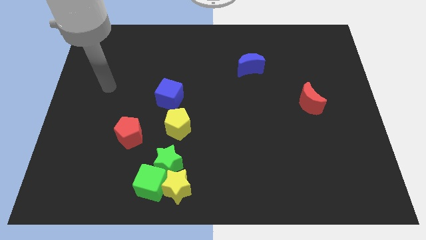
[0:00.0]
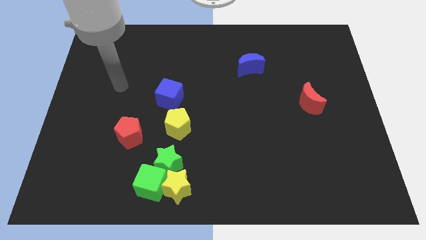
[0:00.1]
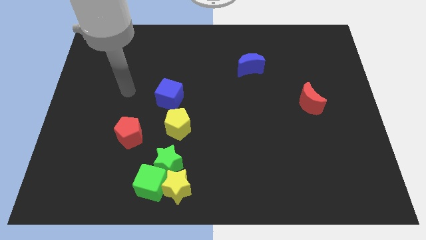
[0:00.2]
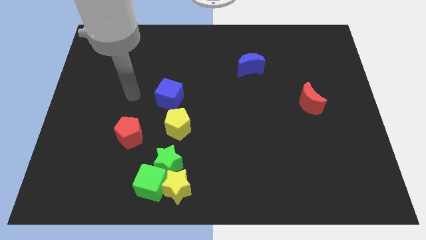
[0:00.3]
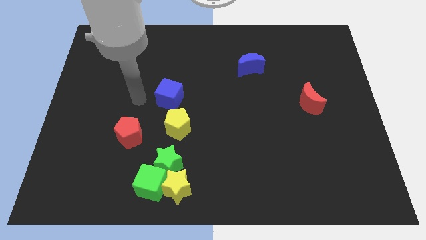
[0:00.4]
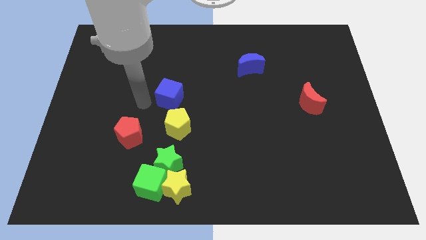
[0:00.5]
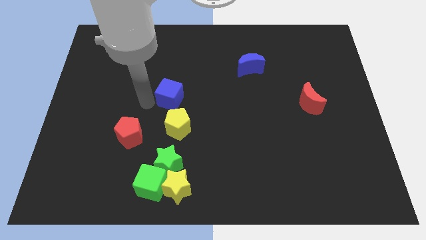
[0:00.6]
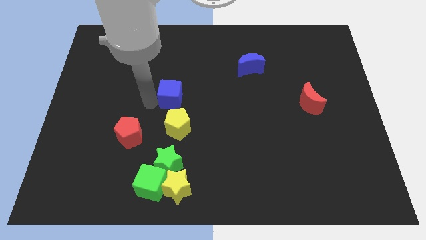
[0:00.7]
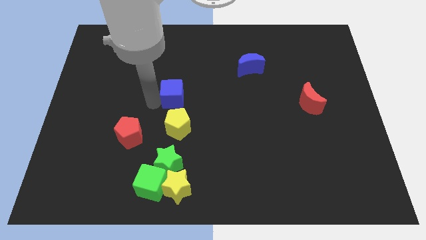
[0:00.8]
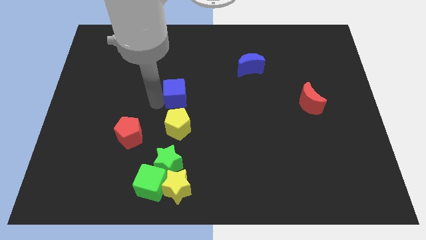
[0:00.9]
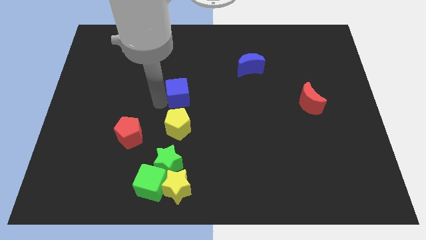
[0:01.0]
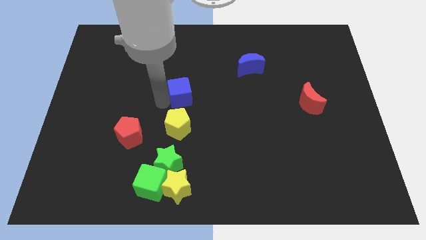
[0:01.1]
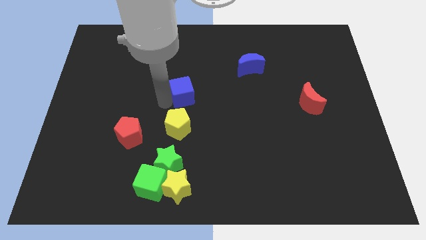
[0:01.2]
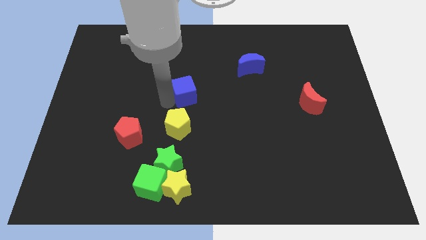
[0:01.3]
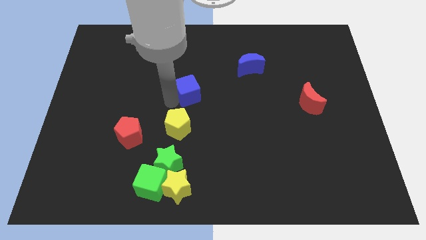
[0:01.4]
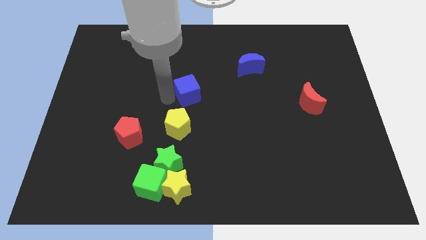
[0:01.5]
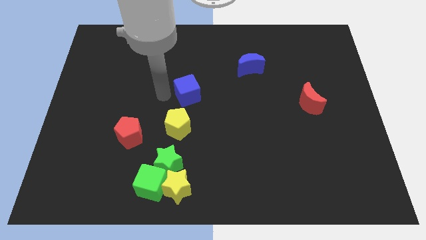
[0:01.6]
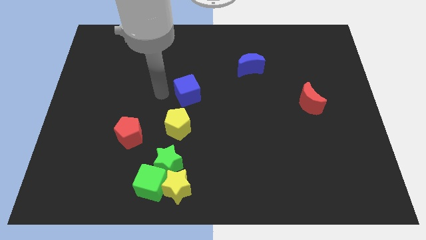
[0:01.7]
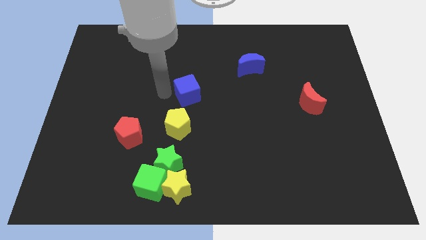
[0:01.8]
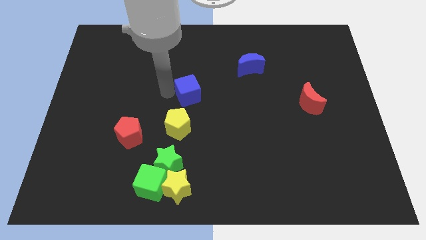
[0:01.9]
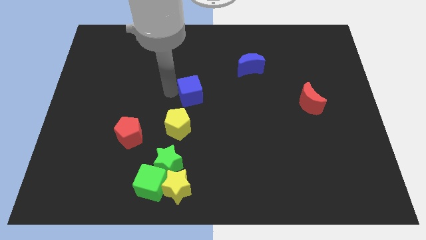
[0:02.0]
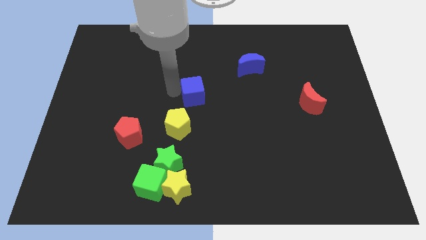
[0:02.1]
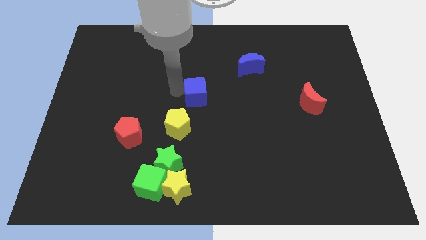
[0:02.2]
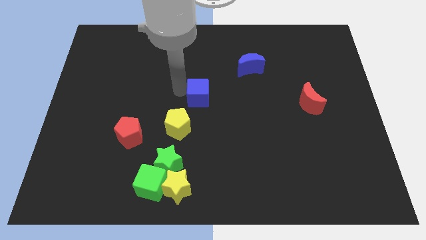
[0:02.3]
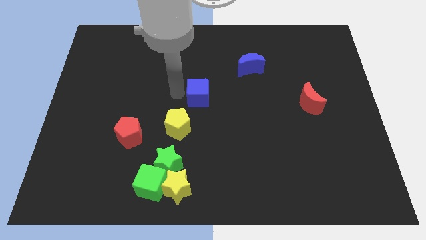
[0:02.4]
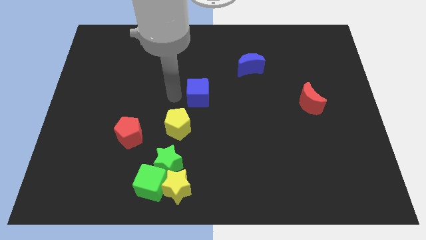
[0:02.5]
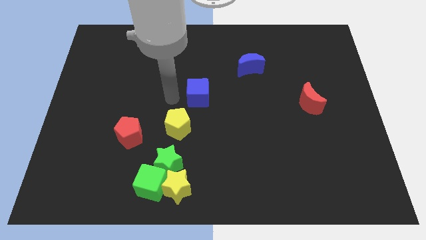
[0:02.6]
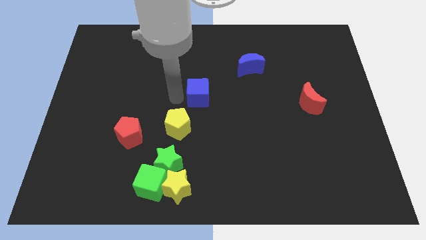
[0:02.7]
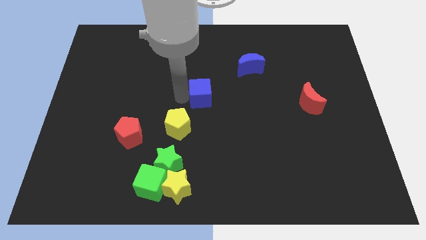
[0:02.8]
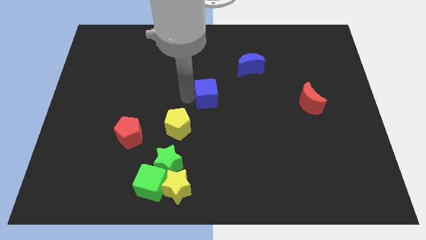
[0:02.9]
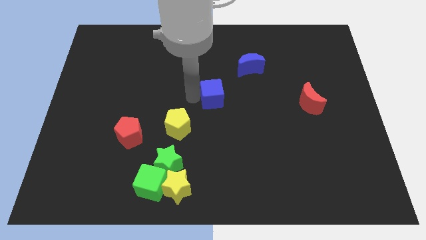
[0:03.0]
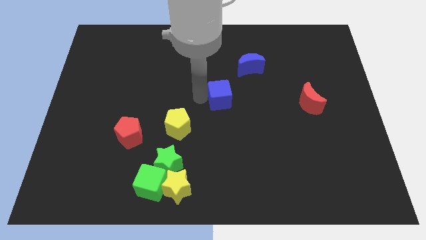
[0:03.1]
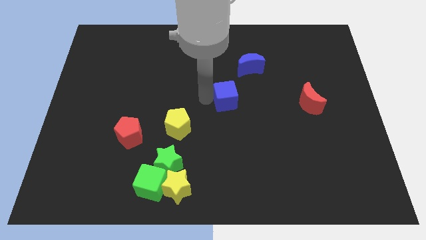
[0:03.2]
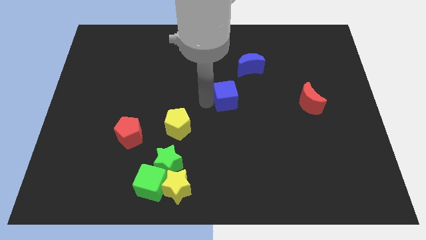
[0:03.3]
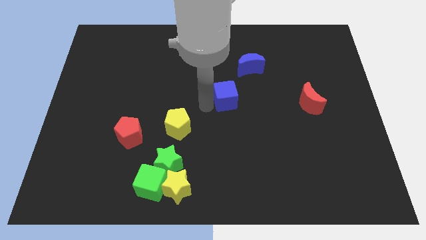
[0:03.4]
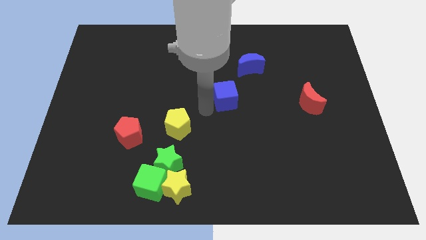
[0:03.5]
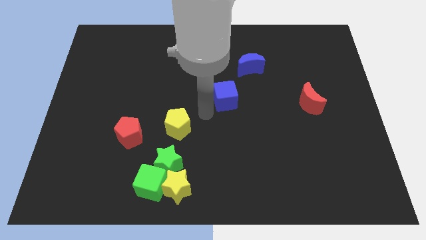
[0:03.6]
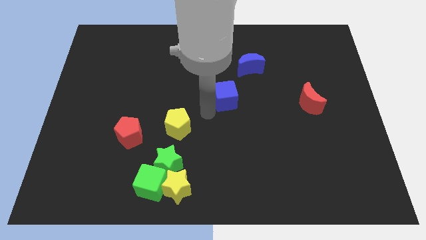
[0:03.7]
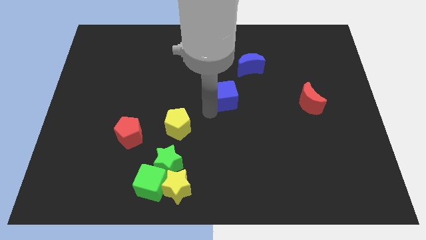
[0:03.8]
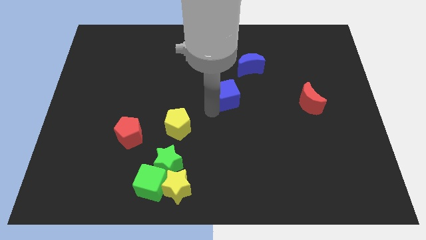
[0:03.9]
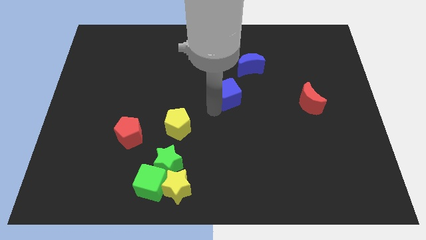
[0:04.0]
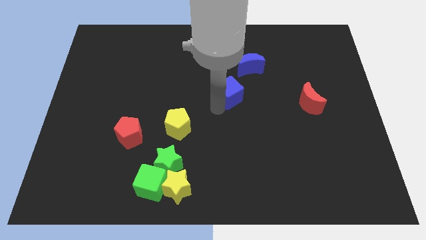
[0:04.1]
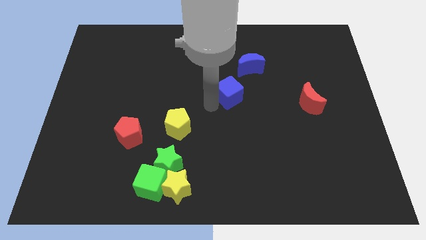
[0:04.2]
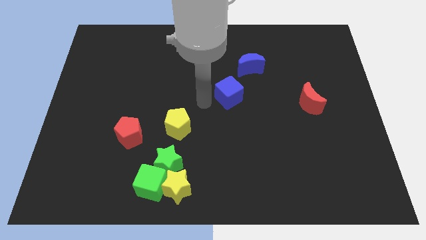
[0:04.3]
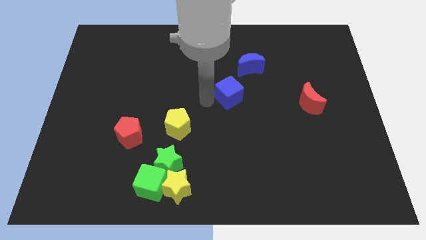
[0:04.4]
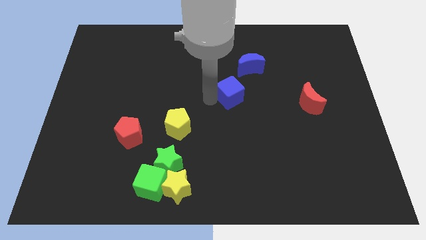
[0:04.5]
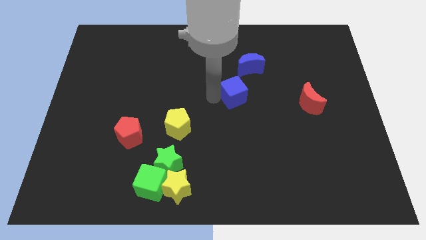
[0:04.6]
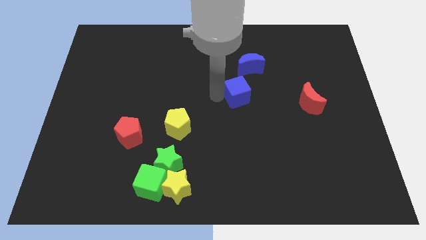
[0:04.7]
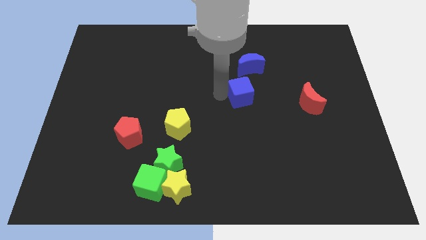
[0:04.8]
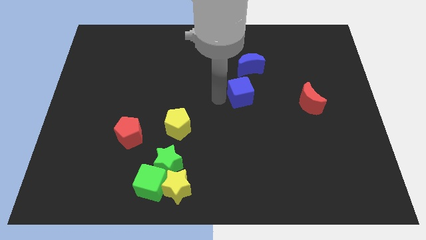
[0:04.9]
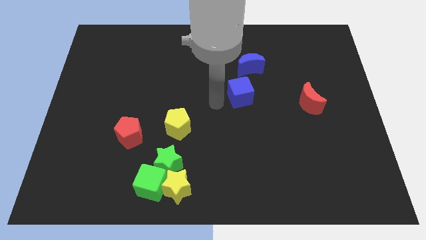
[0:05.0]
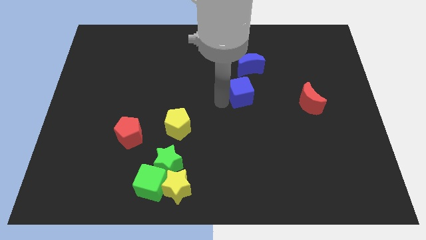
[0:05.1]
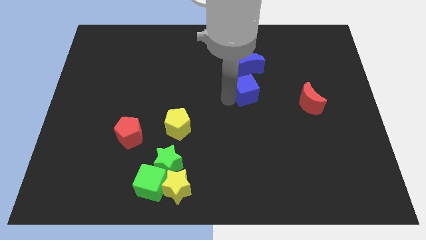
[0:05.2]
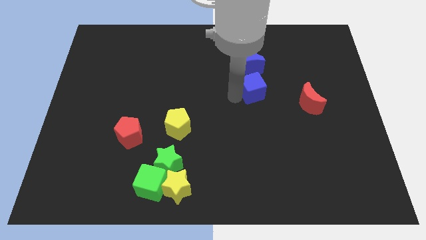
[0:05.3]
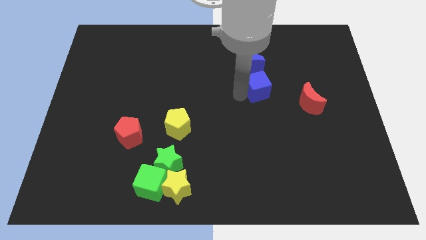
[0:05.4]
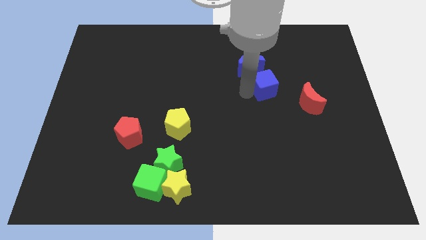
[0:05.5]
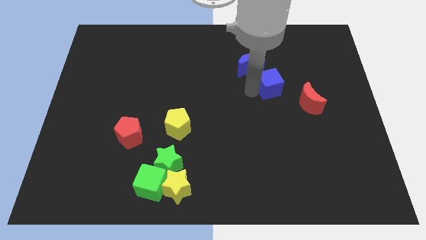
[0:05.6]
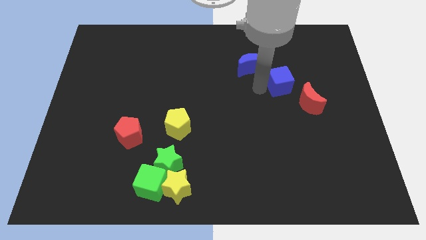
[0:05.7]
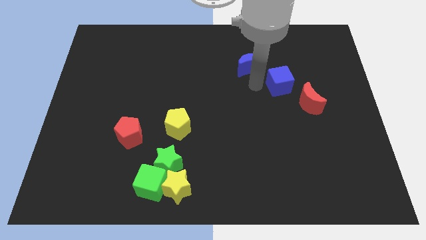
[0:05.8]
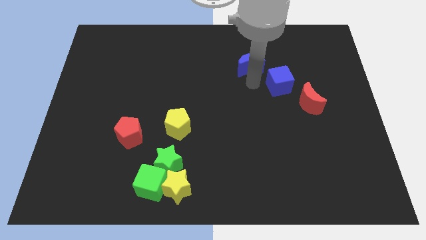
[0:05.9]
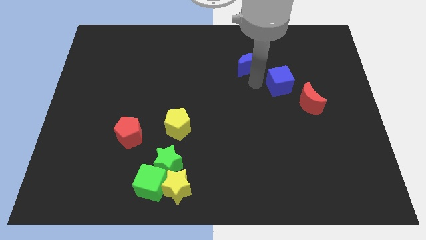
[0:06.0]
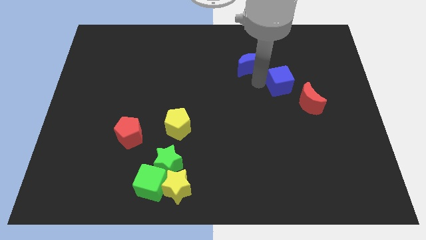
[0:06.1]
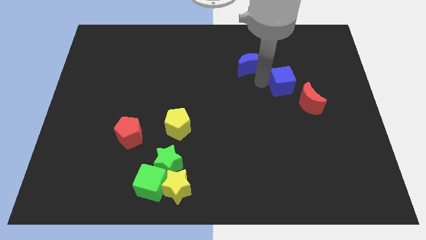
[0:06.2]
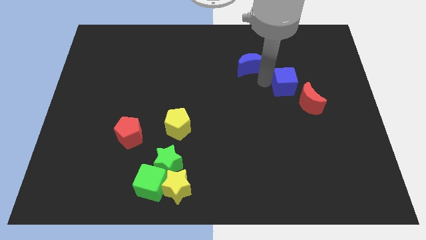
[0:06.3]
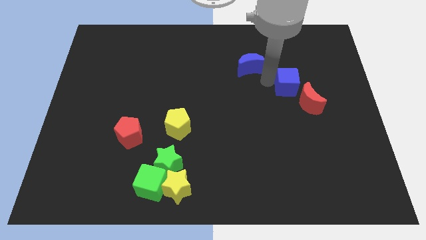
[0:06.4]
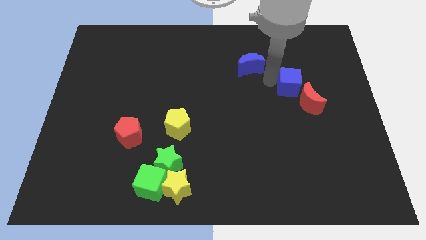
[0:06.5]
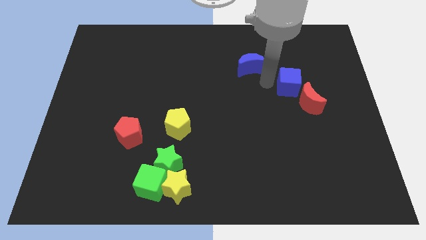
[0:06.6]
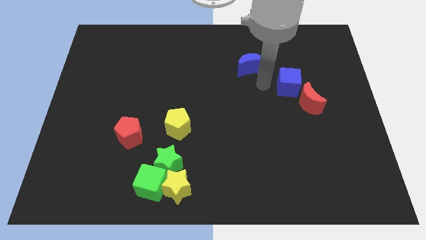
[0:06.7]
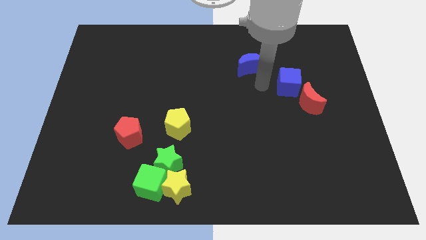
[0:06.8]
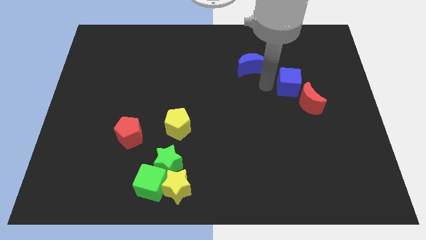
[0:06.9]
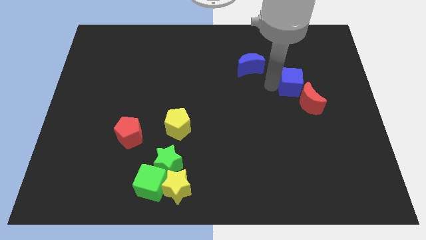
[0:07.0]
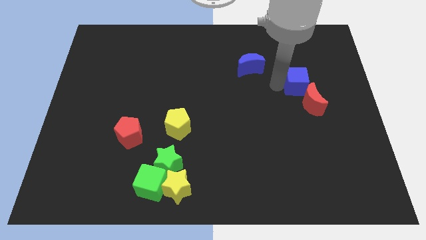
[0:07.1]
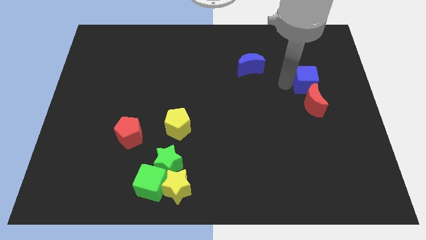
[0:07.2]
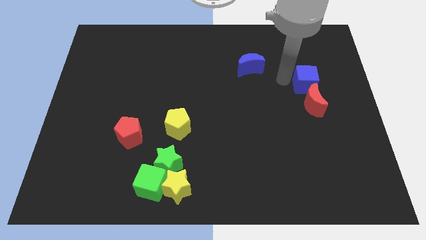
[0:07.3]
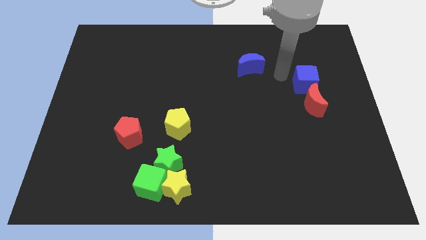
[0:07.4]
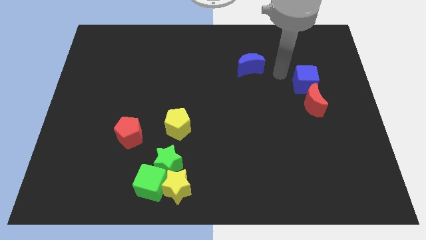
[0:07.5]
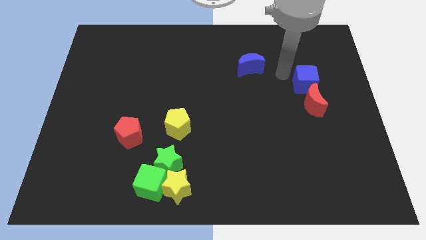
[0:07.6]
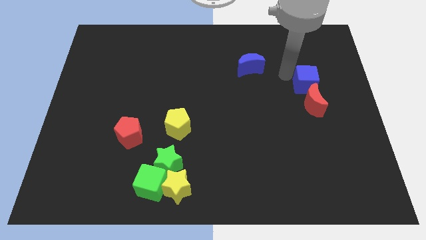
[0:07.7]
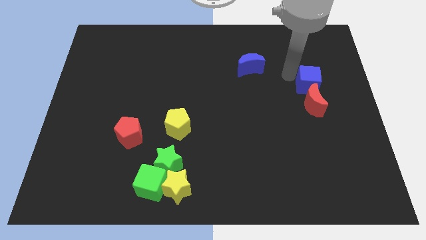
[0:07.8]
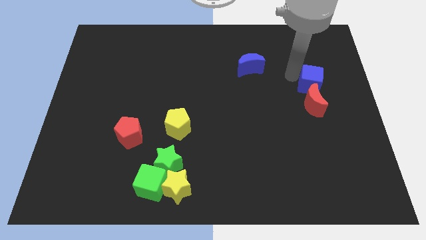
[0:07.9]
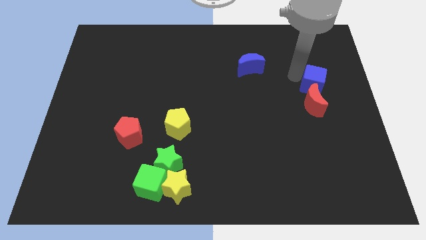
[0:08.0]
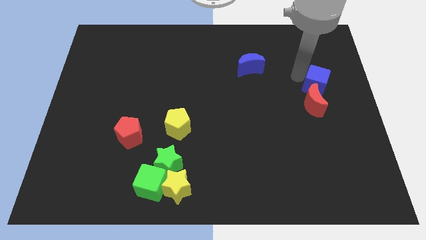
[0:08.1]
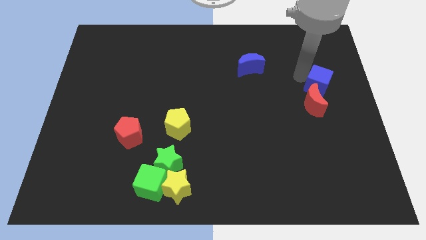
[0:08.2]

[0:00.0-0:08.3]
slide the blue cube to the right side

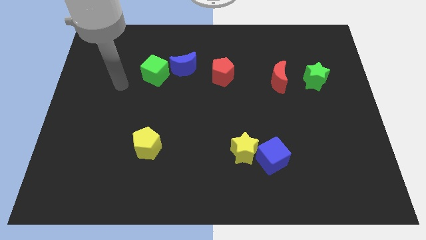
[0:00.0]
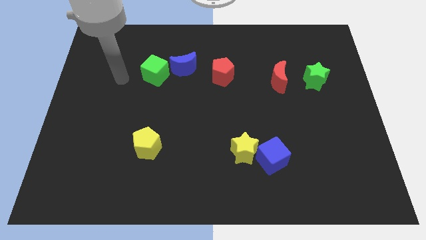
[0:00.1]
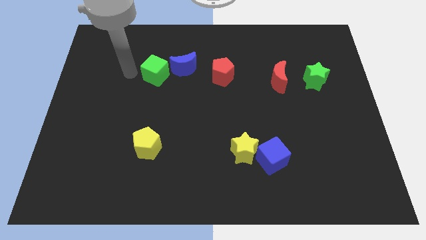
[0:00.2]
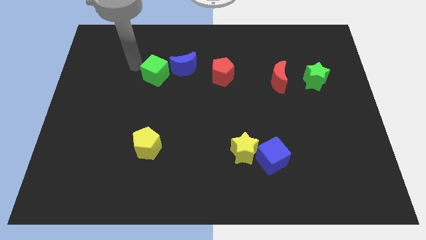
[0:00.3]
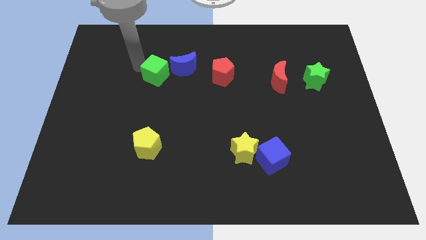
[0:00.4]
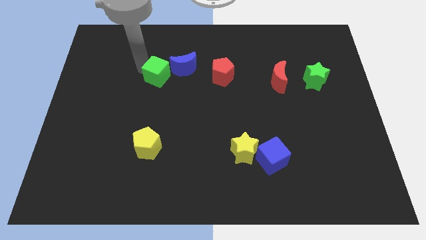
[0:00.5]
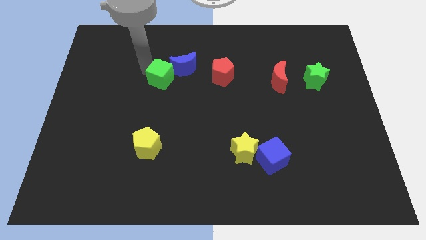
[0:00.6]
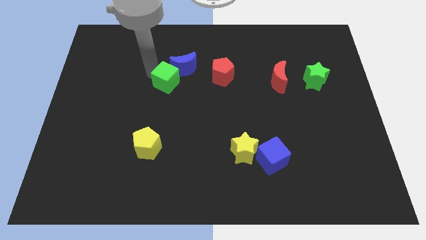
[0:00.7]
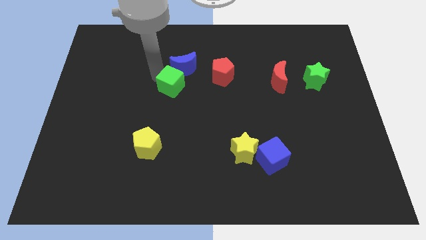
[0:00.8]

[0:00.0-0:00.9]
slide the green cube to the middle of the board
